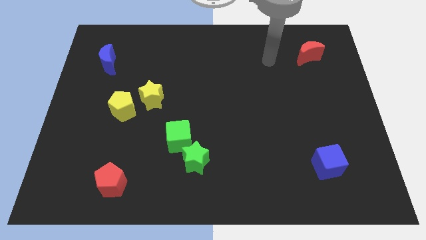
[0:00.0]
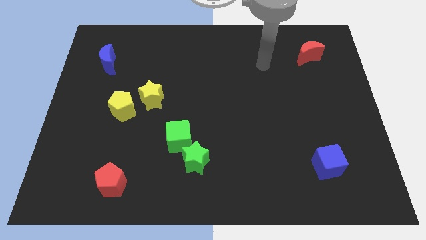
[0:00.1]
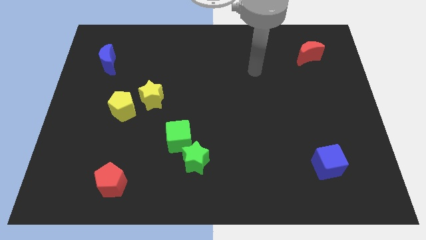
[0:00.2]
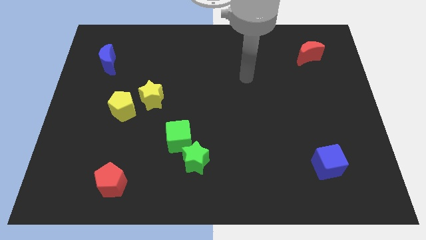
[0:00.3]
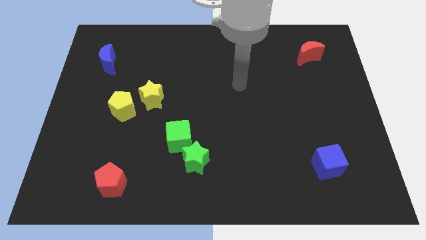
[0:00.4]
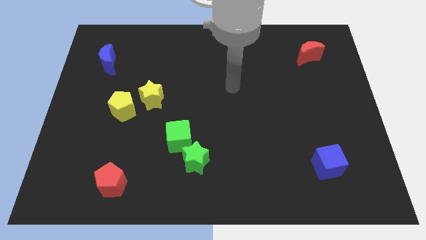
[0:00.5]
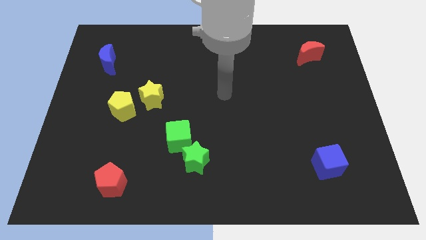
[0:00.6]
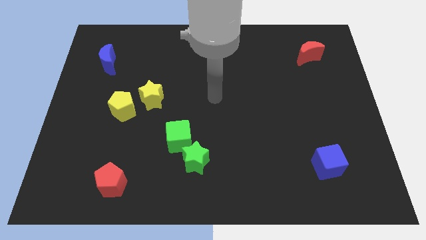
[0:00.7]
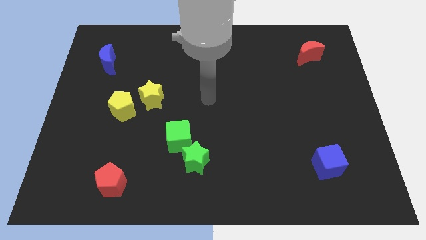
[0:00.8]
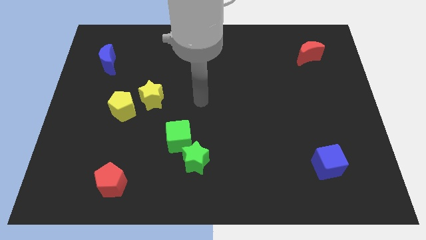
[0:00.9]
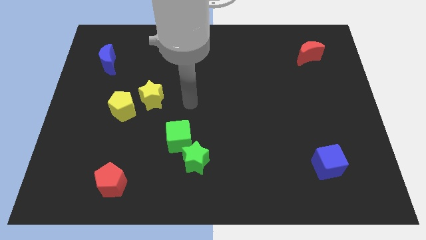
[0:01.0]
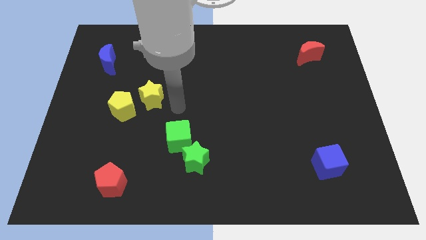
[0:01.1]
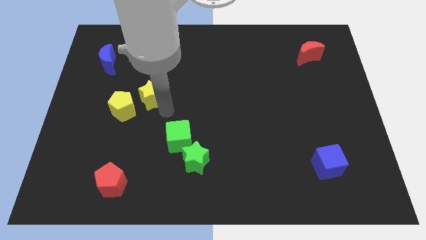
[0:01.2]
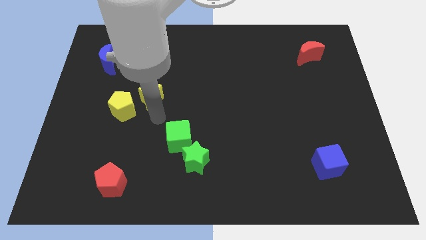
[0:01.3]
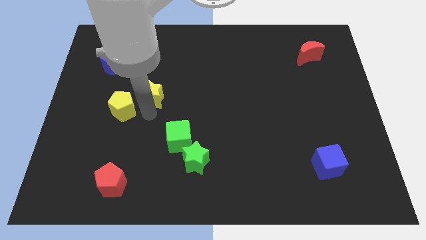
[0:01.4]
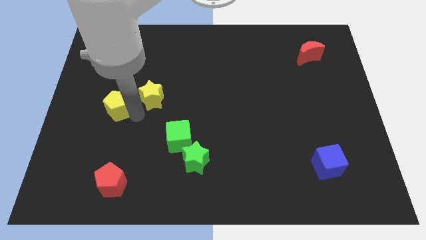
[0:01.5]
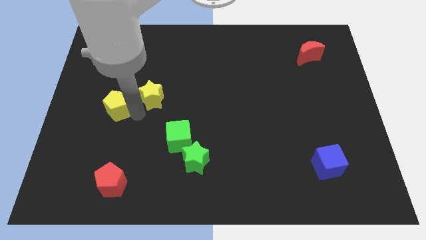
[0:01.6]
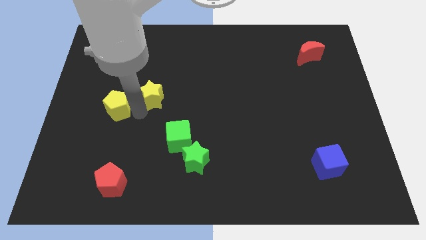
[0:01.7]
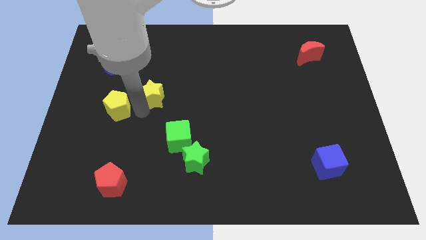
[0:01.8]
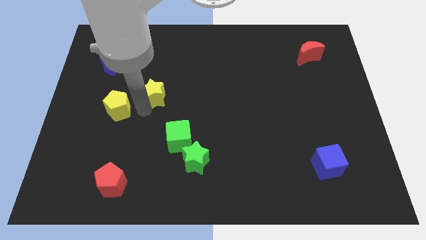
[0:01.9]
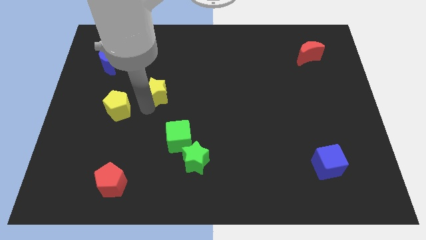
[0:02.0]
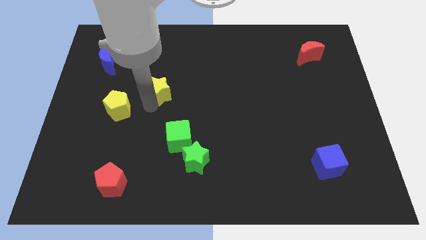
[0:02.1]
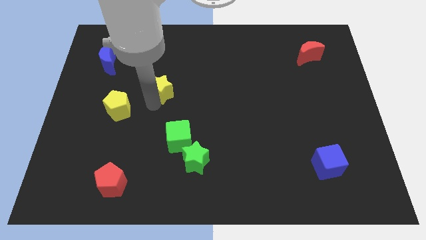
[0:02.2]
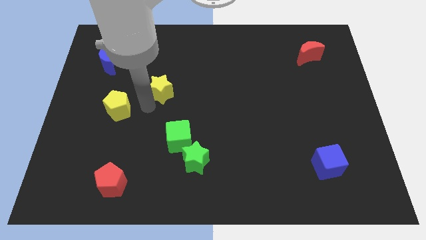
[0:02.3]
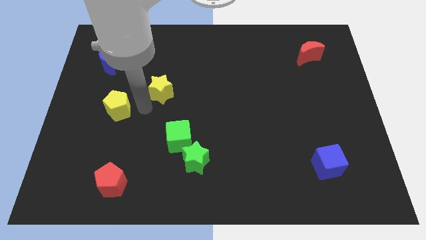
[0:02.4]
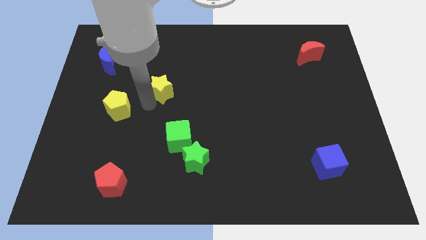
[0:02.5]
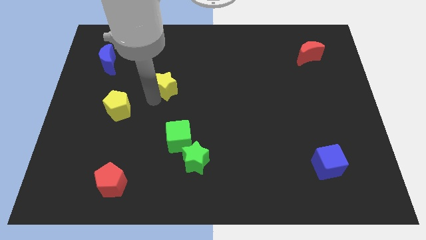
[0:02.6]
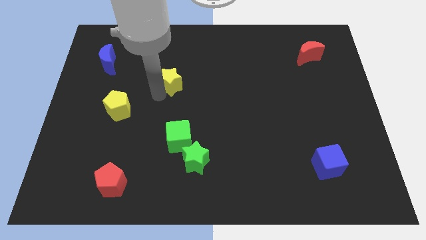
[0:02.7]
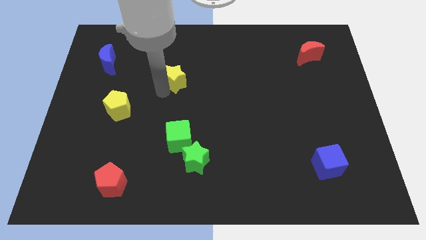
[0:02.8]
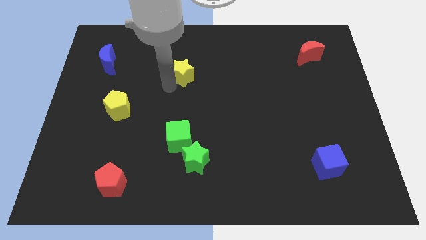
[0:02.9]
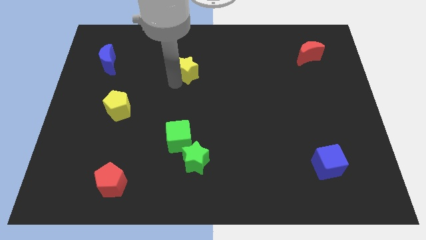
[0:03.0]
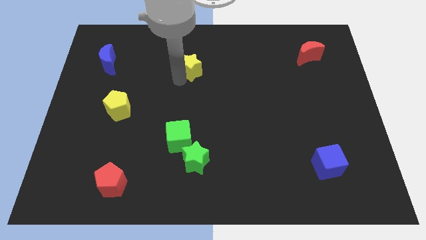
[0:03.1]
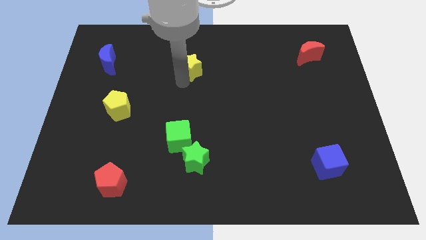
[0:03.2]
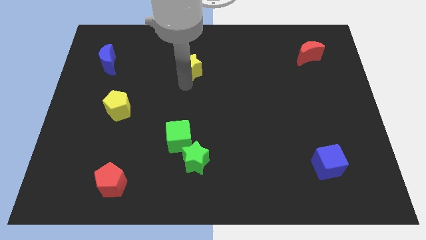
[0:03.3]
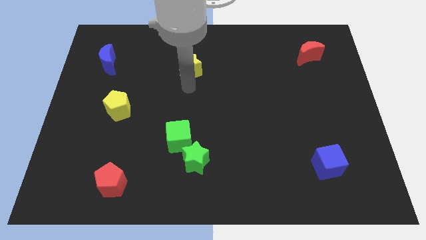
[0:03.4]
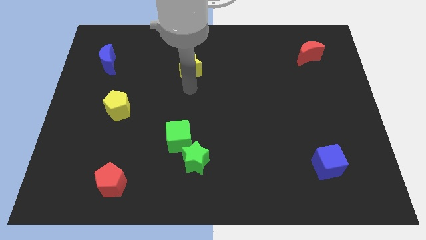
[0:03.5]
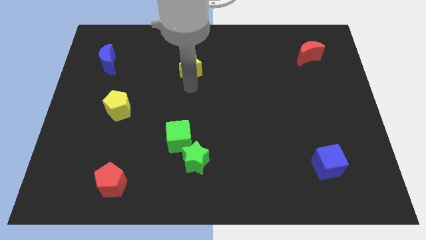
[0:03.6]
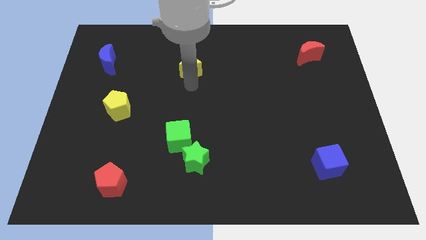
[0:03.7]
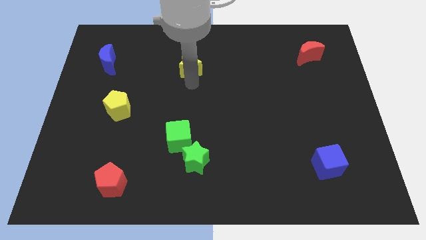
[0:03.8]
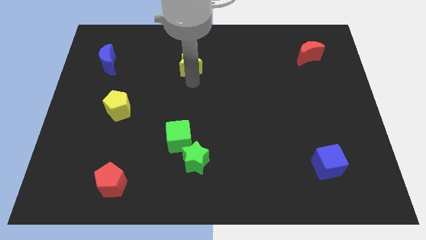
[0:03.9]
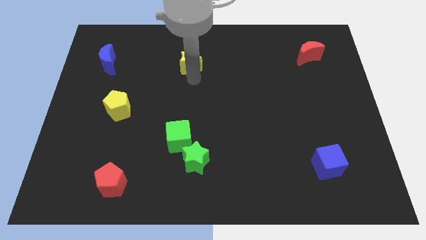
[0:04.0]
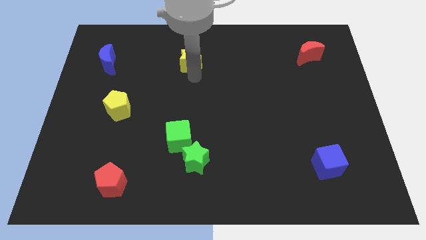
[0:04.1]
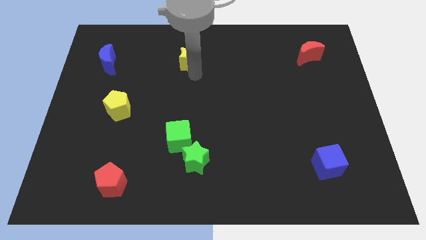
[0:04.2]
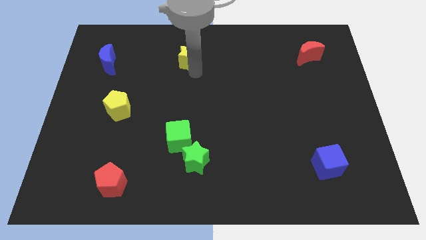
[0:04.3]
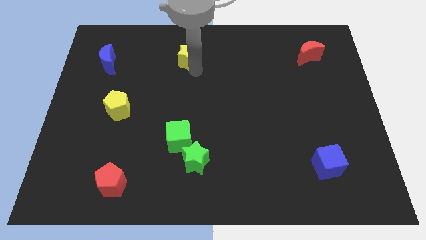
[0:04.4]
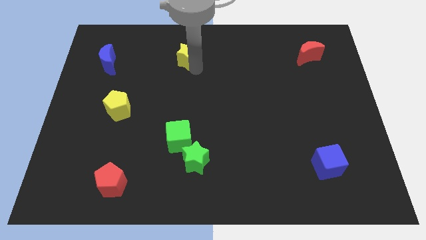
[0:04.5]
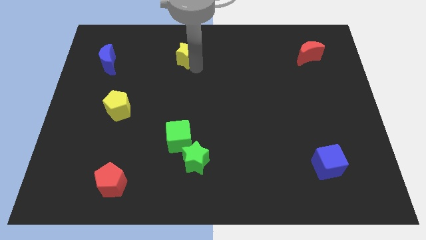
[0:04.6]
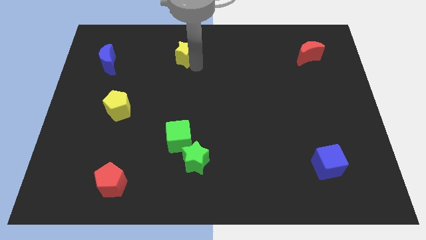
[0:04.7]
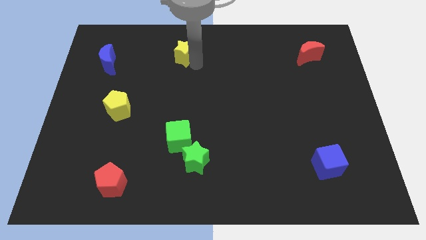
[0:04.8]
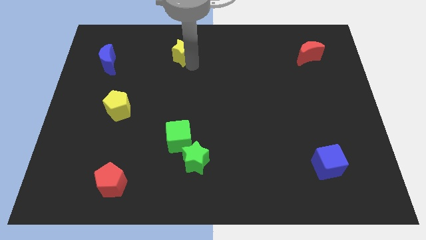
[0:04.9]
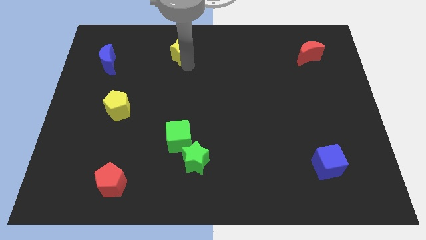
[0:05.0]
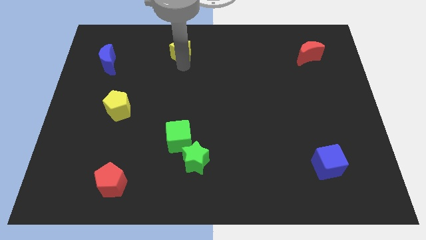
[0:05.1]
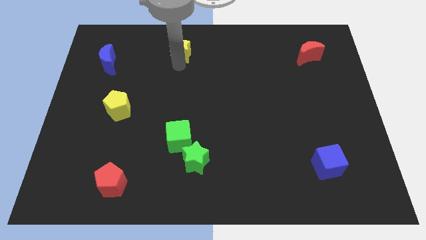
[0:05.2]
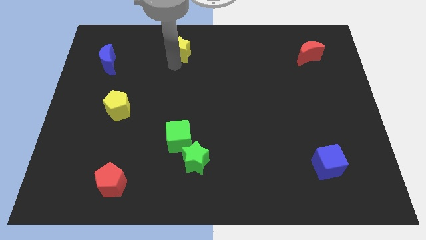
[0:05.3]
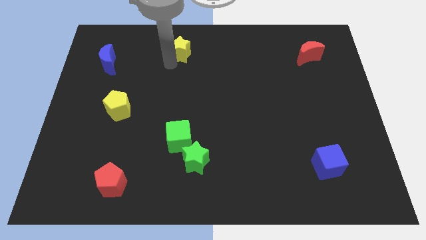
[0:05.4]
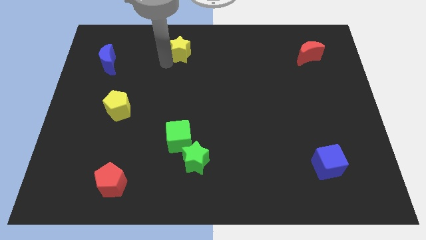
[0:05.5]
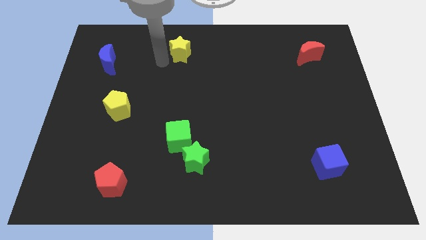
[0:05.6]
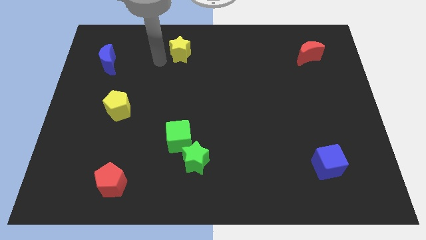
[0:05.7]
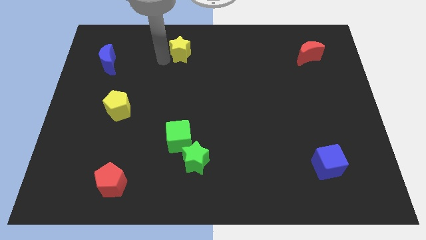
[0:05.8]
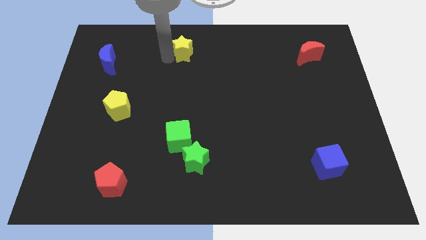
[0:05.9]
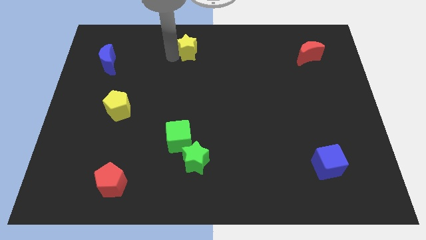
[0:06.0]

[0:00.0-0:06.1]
slide the yellow star to the top side
